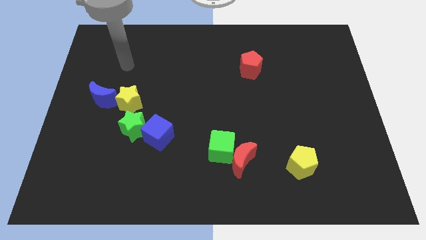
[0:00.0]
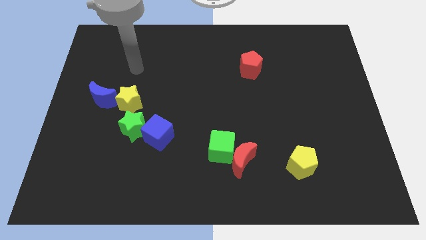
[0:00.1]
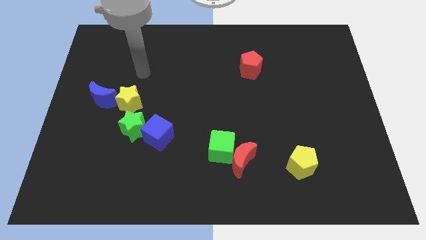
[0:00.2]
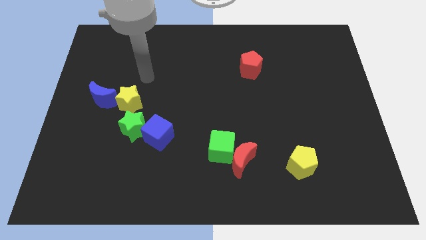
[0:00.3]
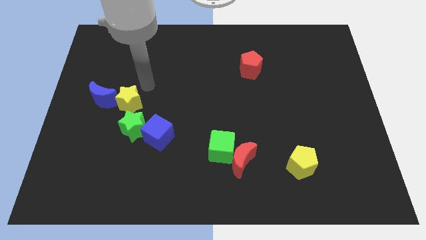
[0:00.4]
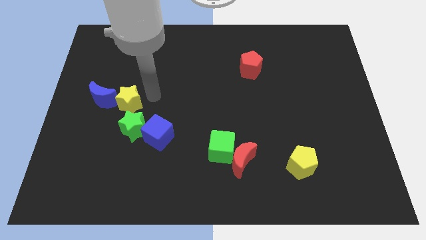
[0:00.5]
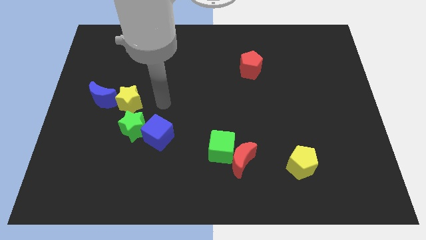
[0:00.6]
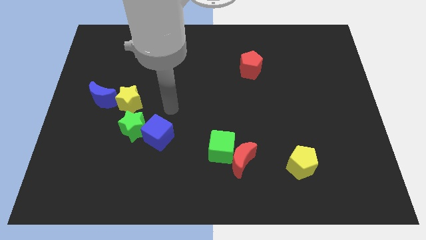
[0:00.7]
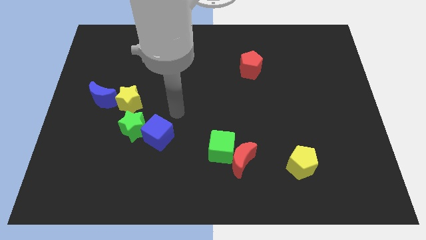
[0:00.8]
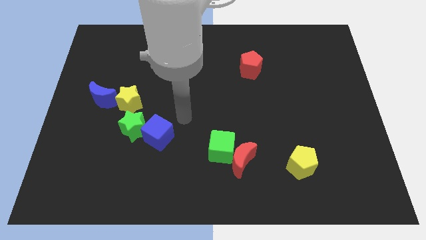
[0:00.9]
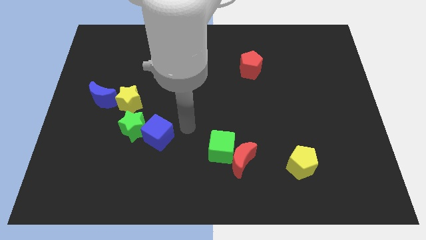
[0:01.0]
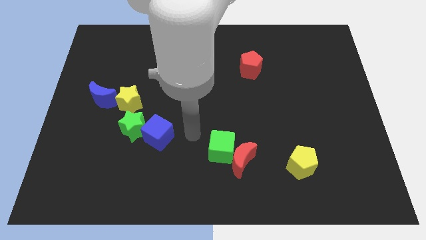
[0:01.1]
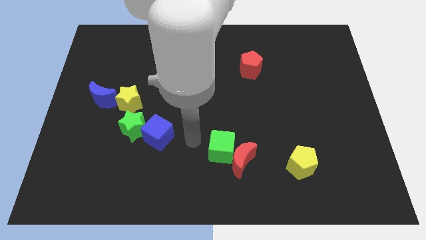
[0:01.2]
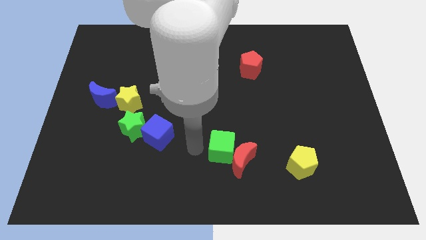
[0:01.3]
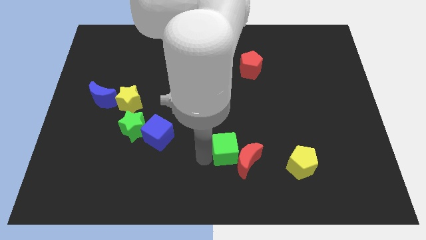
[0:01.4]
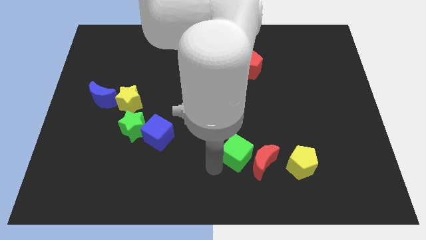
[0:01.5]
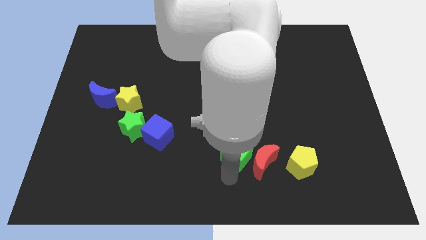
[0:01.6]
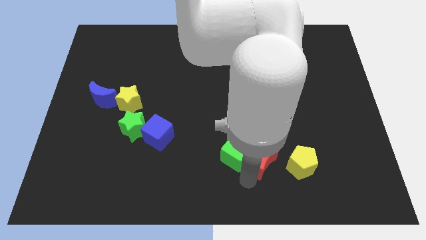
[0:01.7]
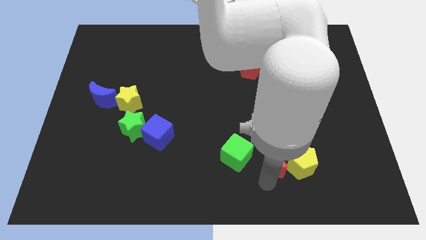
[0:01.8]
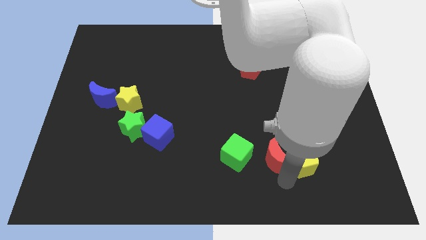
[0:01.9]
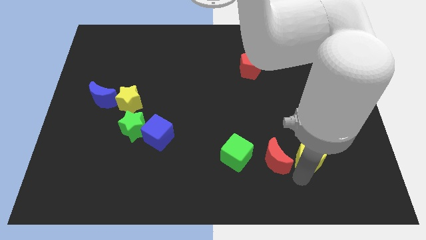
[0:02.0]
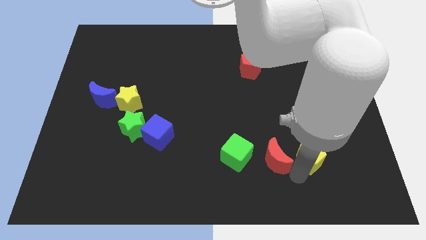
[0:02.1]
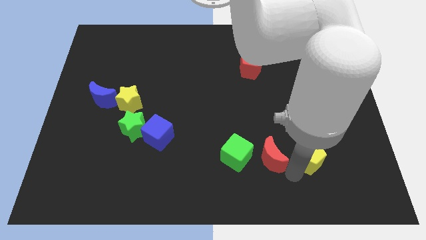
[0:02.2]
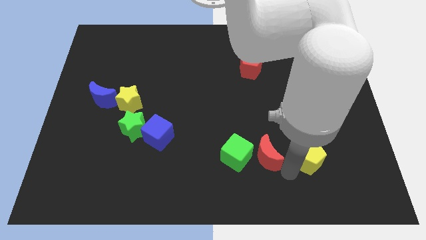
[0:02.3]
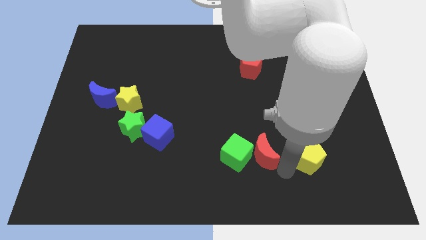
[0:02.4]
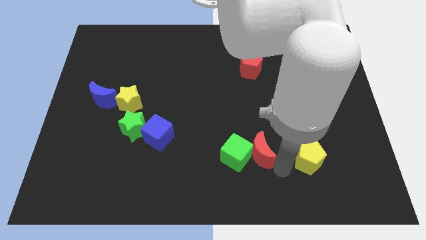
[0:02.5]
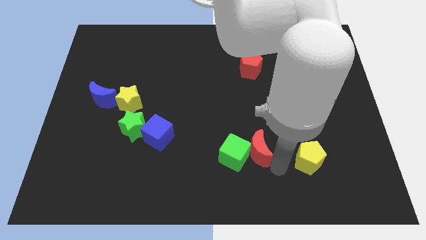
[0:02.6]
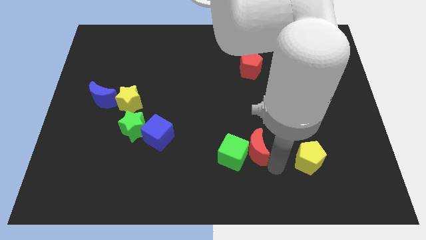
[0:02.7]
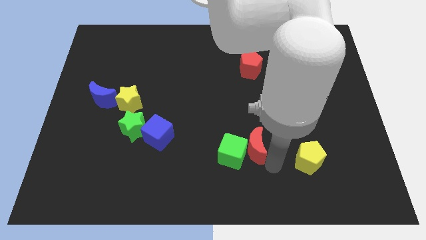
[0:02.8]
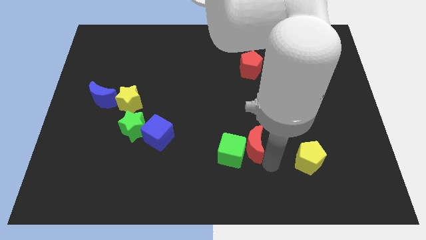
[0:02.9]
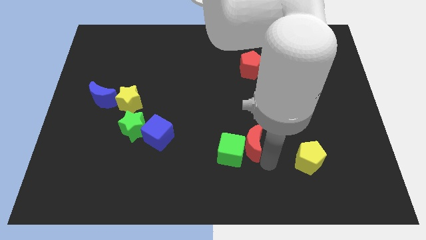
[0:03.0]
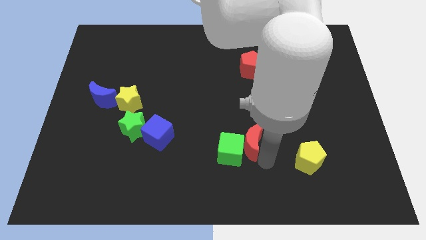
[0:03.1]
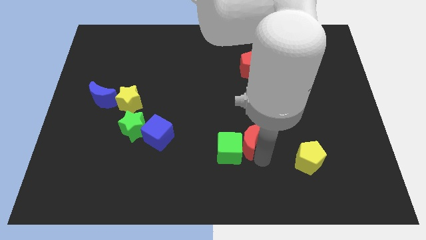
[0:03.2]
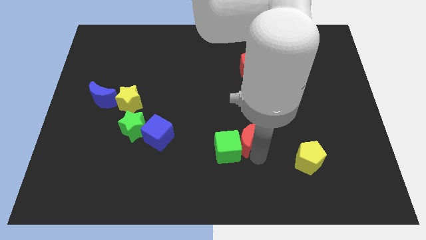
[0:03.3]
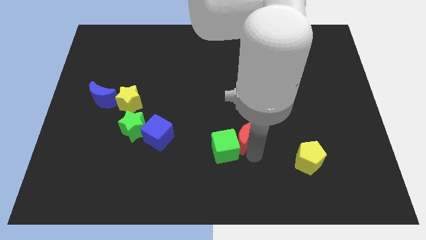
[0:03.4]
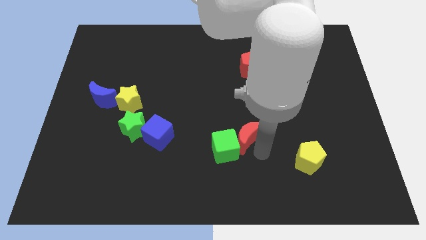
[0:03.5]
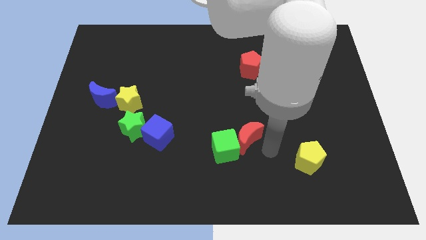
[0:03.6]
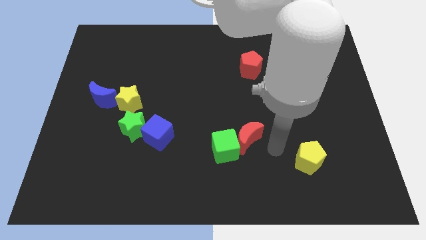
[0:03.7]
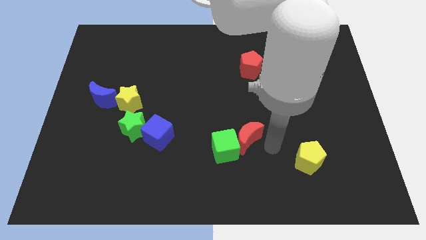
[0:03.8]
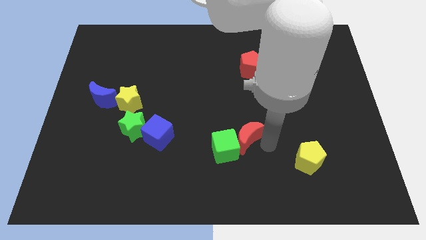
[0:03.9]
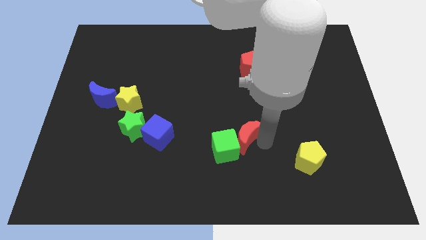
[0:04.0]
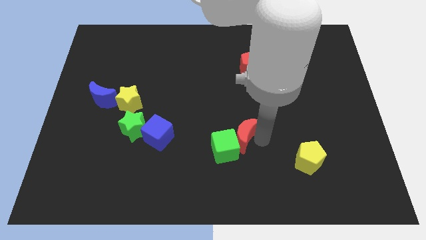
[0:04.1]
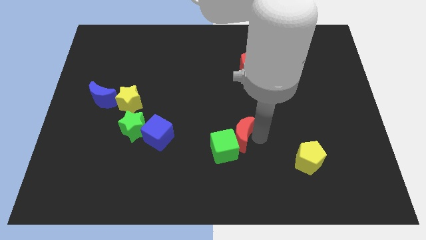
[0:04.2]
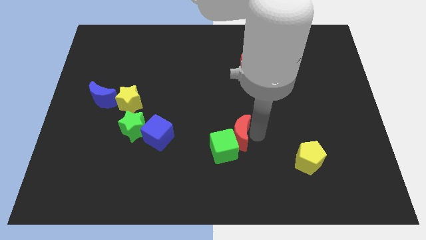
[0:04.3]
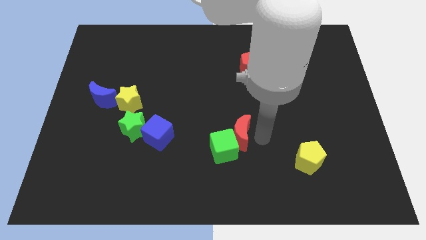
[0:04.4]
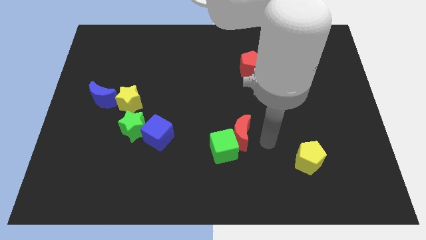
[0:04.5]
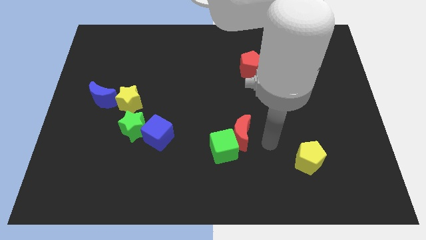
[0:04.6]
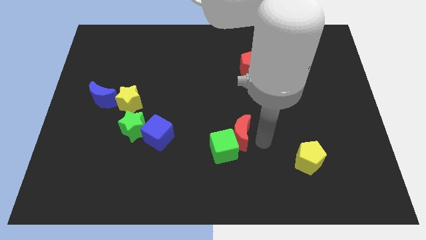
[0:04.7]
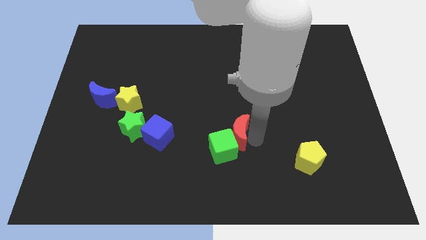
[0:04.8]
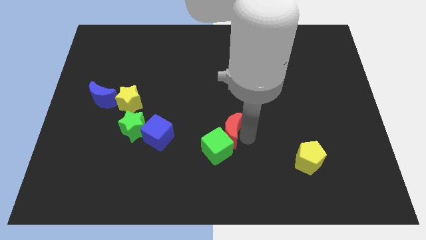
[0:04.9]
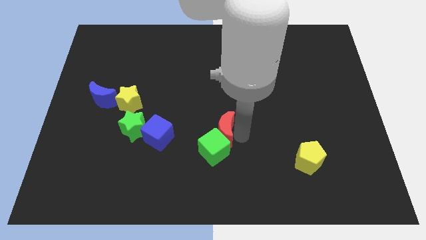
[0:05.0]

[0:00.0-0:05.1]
slightly push the red moon up and to the left diagonally

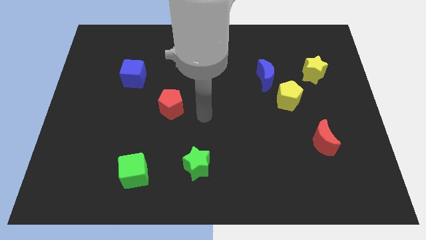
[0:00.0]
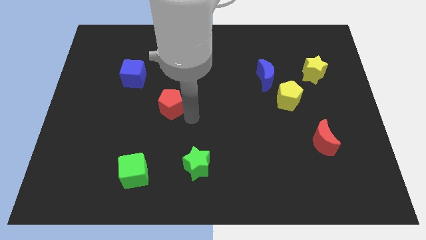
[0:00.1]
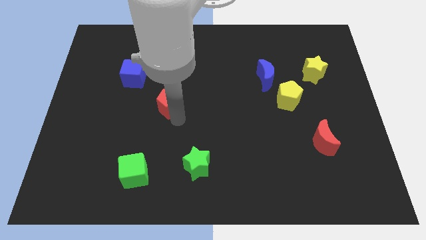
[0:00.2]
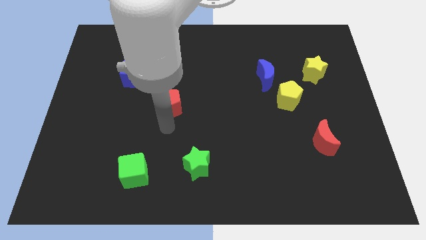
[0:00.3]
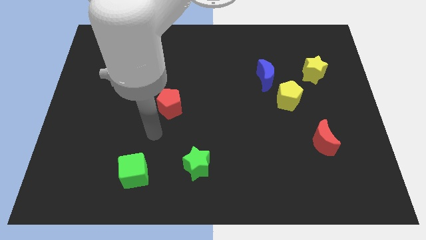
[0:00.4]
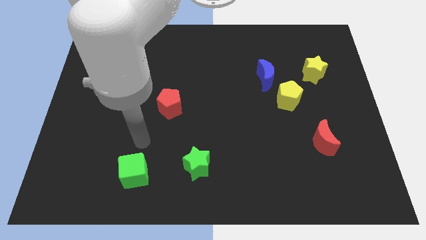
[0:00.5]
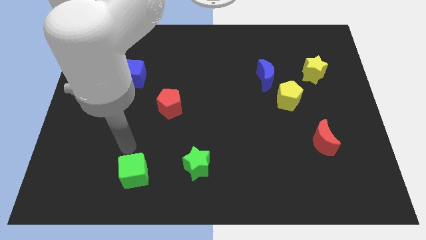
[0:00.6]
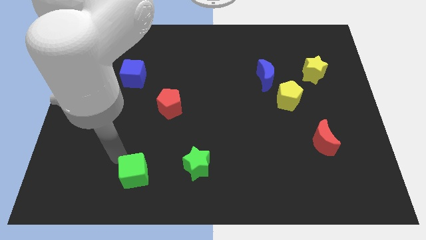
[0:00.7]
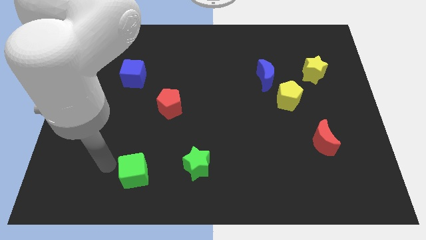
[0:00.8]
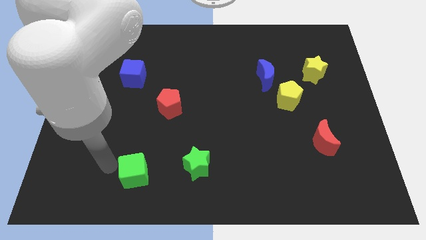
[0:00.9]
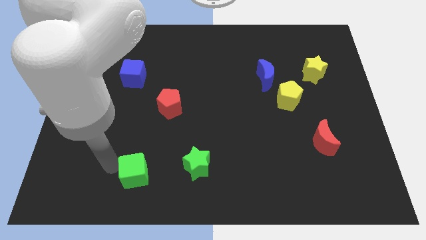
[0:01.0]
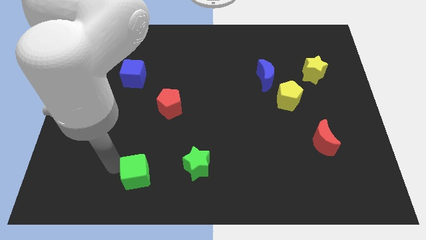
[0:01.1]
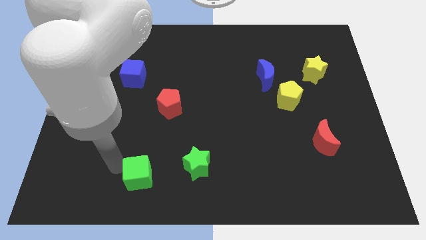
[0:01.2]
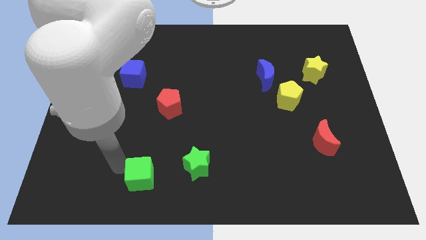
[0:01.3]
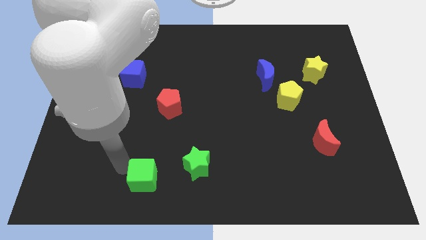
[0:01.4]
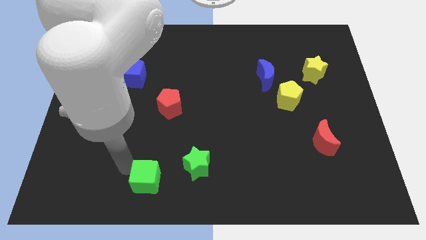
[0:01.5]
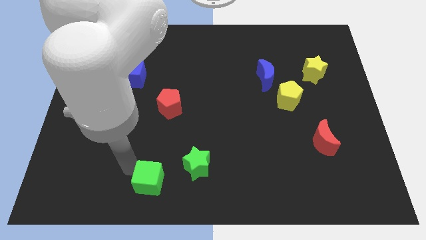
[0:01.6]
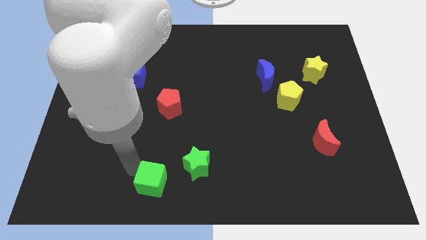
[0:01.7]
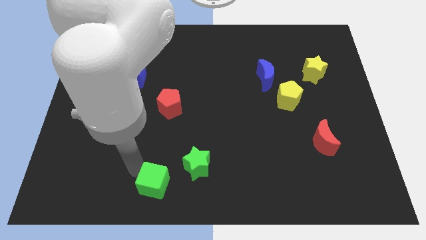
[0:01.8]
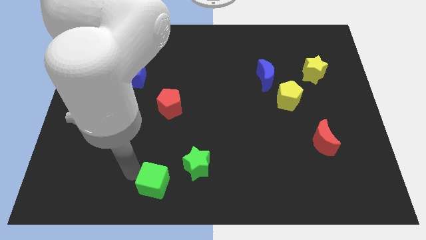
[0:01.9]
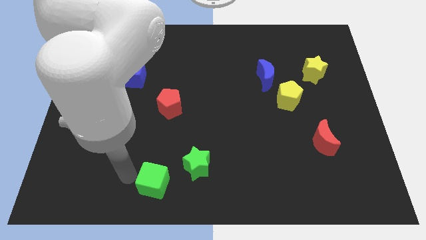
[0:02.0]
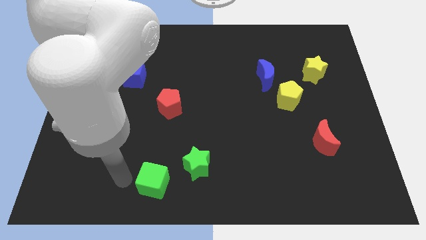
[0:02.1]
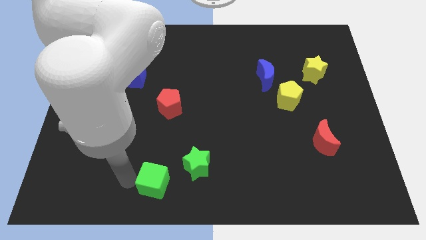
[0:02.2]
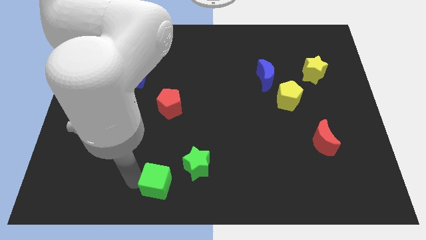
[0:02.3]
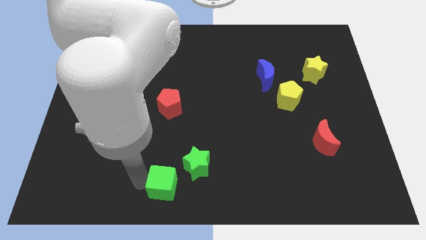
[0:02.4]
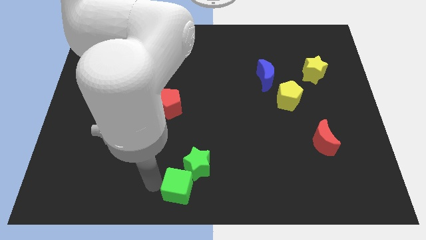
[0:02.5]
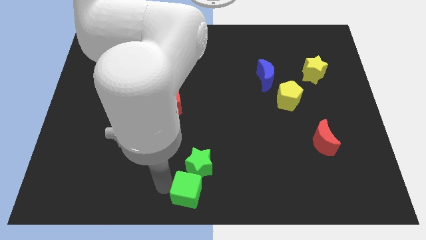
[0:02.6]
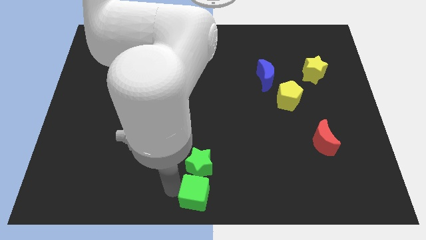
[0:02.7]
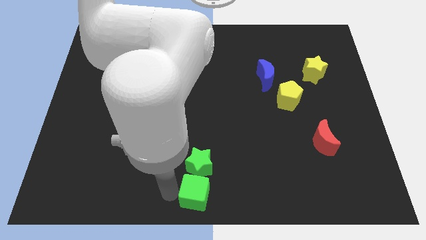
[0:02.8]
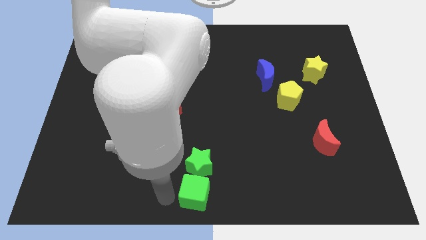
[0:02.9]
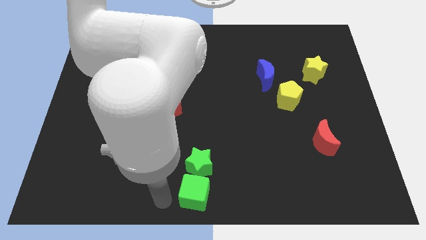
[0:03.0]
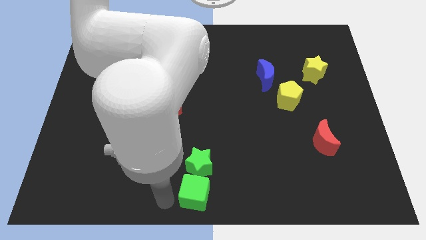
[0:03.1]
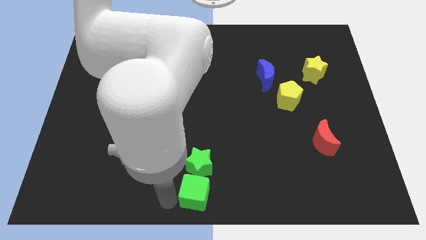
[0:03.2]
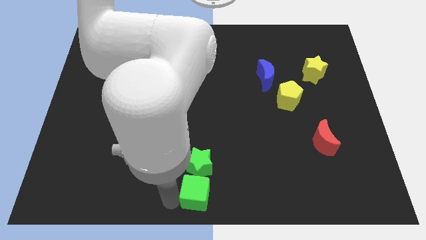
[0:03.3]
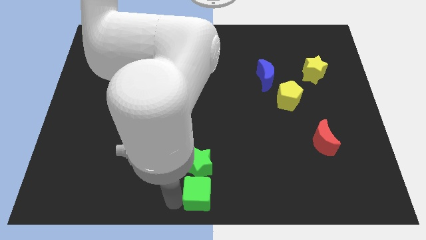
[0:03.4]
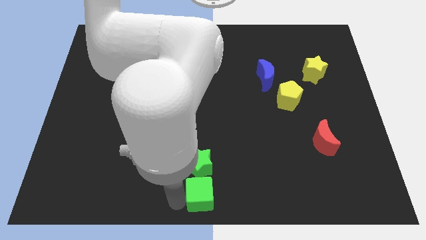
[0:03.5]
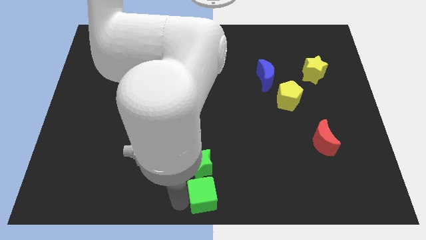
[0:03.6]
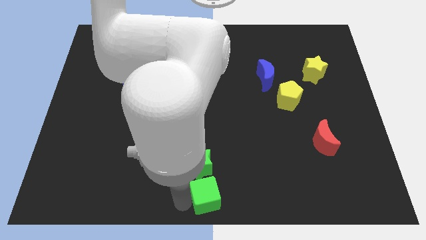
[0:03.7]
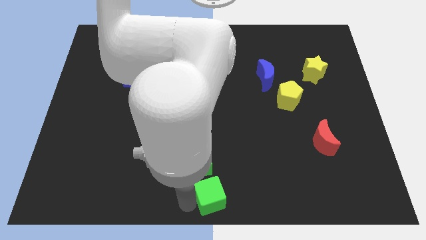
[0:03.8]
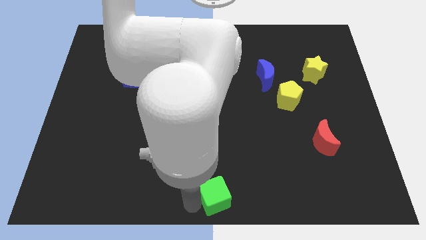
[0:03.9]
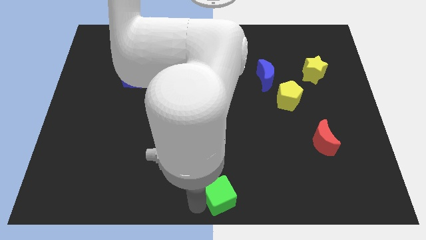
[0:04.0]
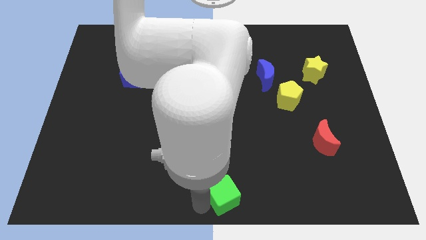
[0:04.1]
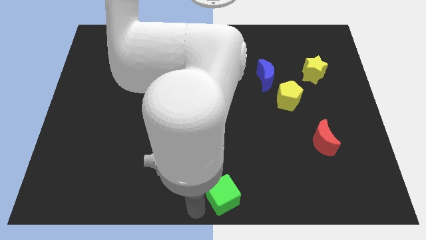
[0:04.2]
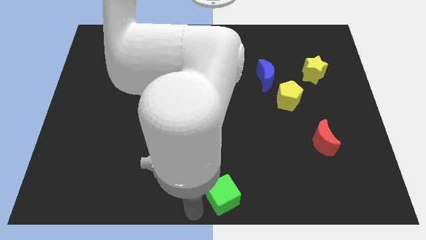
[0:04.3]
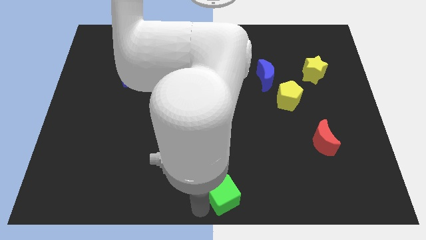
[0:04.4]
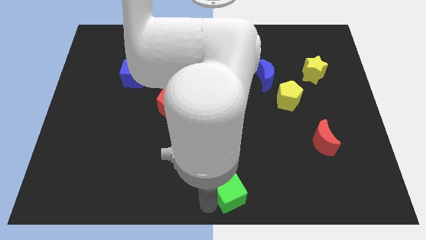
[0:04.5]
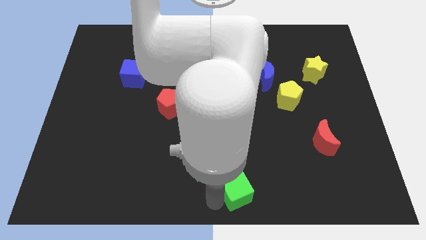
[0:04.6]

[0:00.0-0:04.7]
move the green cube to the right
